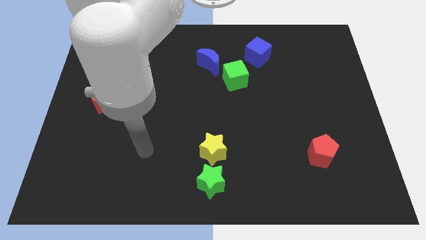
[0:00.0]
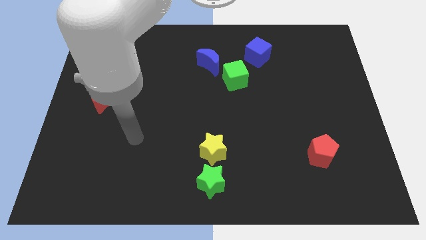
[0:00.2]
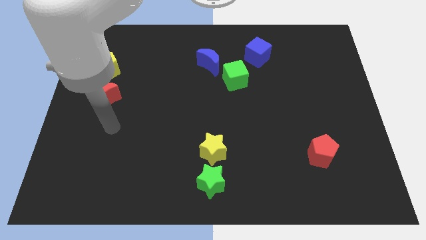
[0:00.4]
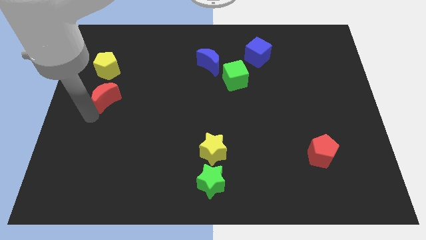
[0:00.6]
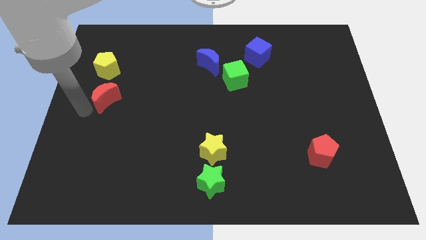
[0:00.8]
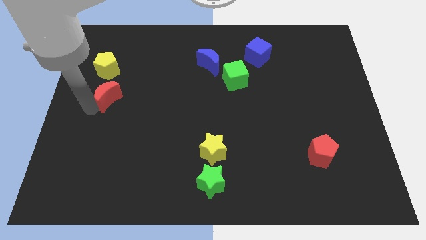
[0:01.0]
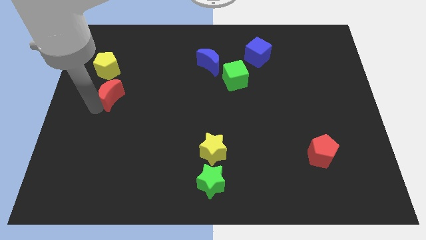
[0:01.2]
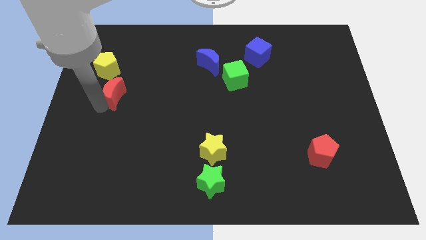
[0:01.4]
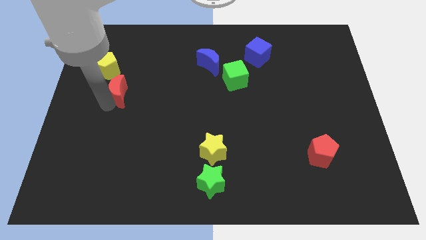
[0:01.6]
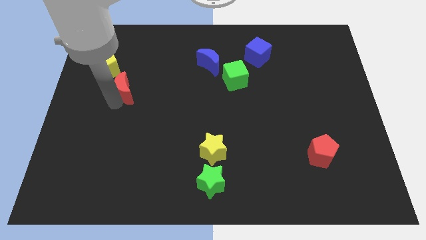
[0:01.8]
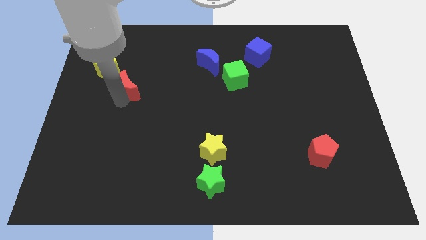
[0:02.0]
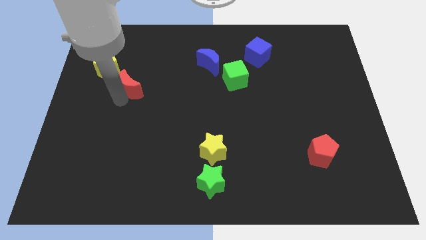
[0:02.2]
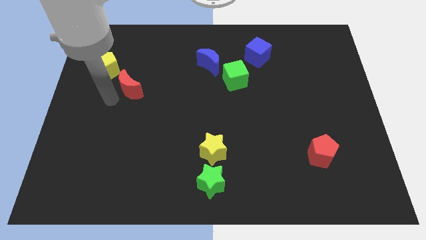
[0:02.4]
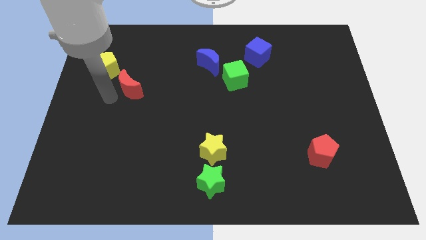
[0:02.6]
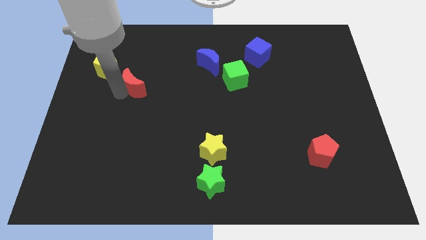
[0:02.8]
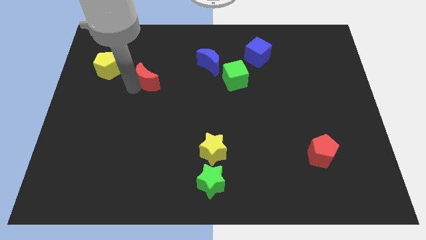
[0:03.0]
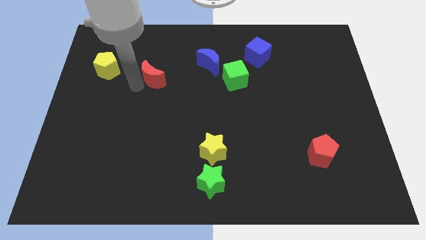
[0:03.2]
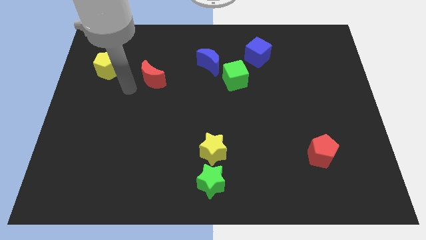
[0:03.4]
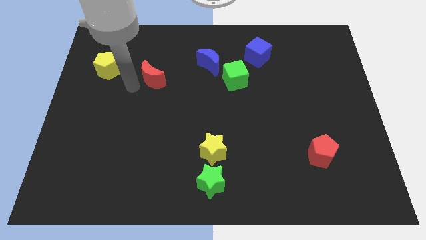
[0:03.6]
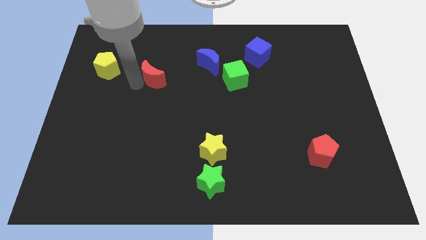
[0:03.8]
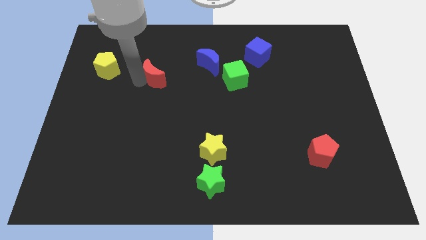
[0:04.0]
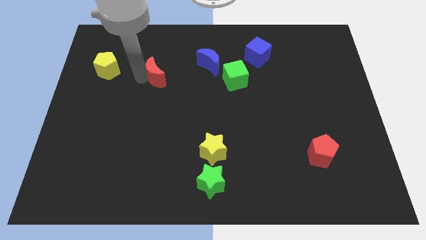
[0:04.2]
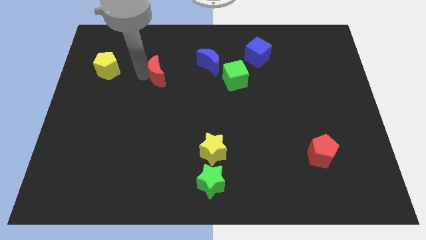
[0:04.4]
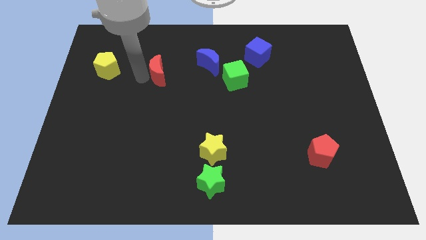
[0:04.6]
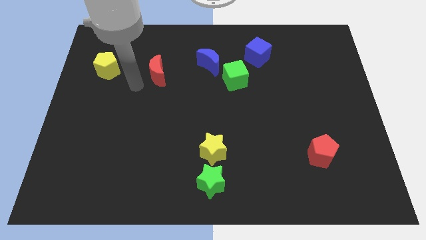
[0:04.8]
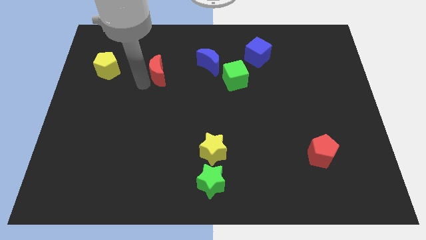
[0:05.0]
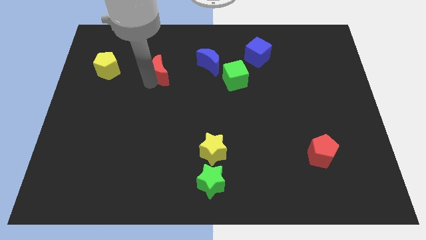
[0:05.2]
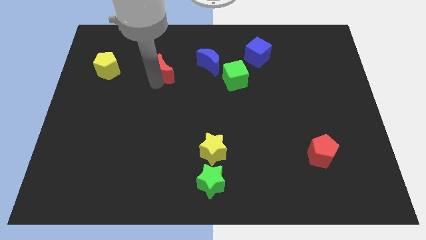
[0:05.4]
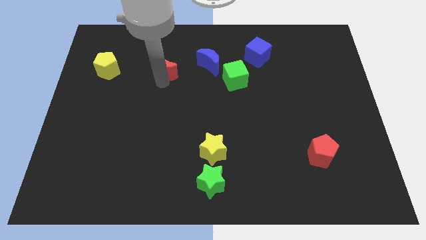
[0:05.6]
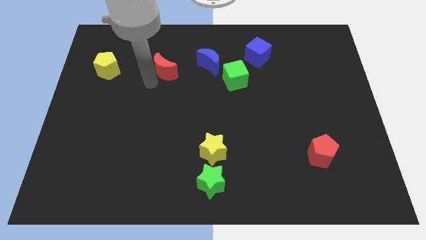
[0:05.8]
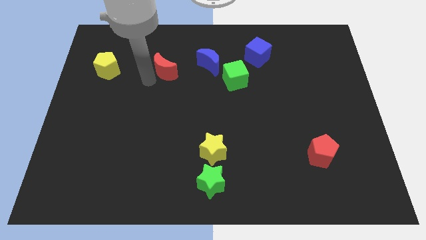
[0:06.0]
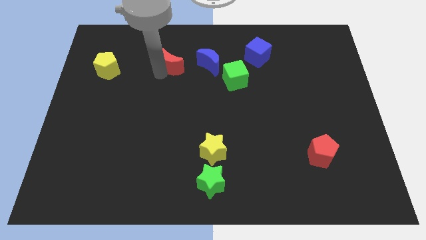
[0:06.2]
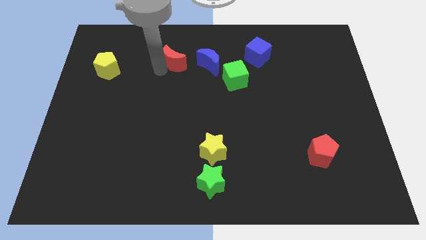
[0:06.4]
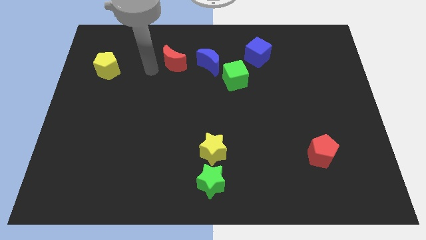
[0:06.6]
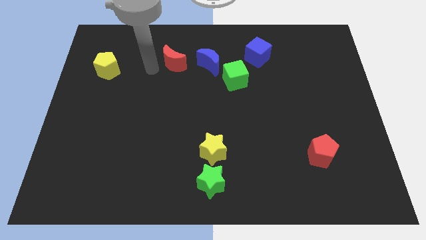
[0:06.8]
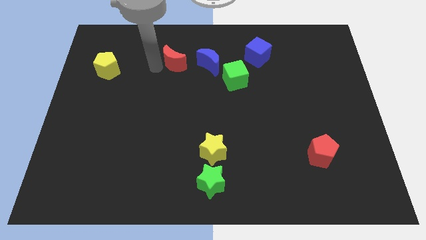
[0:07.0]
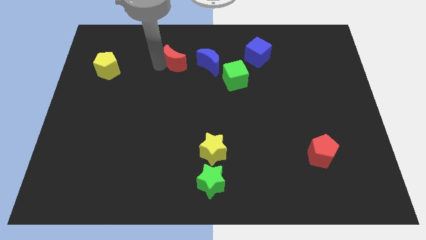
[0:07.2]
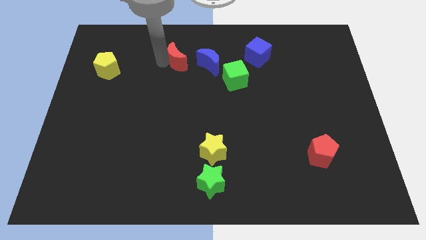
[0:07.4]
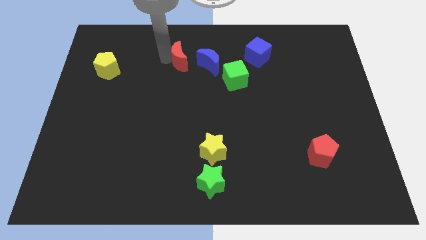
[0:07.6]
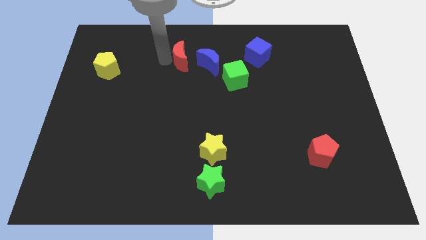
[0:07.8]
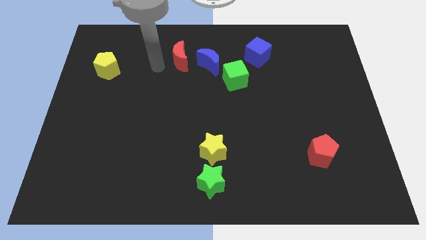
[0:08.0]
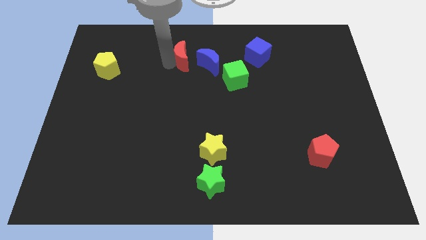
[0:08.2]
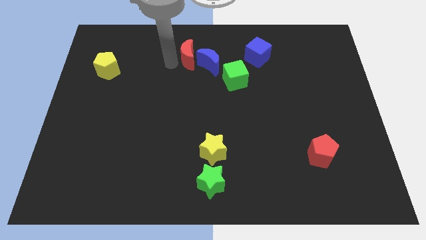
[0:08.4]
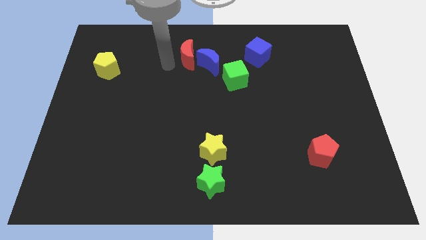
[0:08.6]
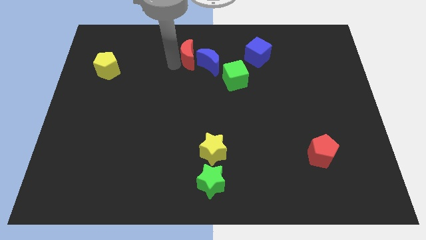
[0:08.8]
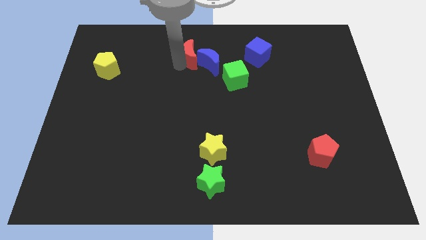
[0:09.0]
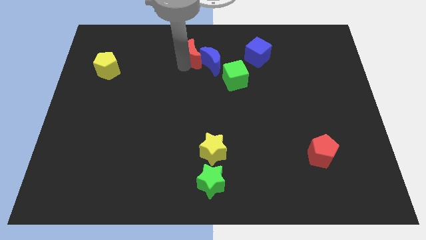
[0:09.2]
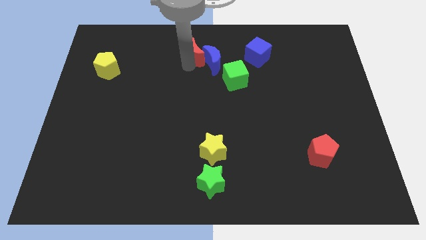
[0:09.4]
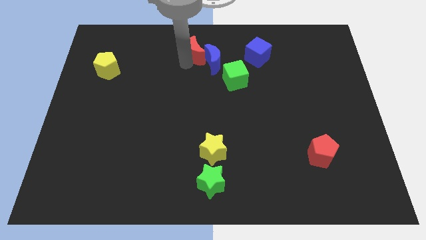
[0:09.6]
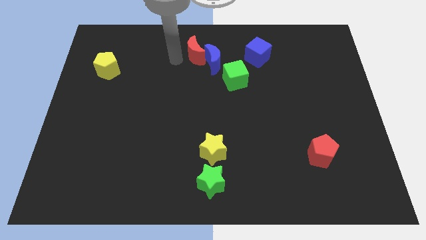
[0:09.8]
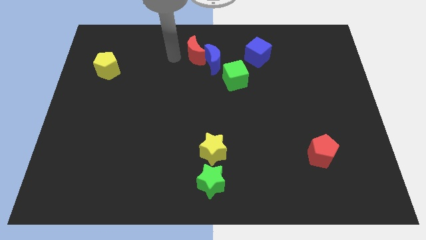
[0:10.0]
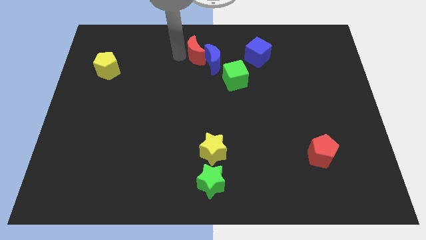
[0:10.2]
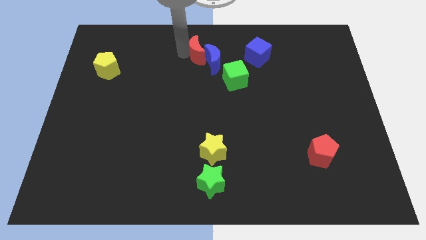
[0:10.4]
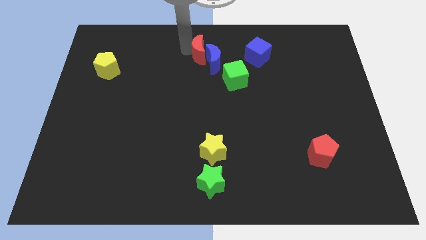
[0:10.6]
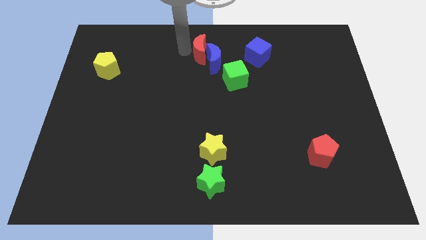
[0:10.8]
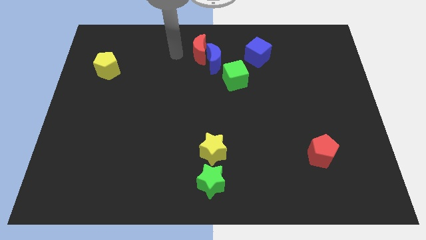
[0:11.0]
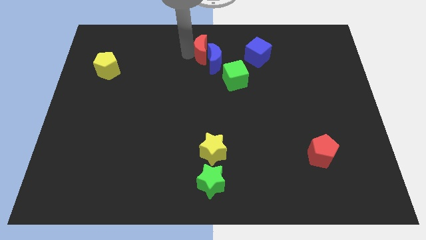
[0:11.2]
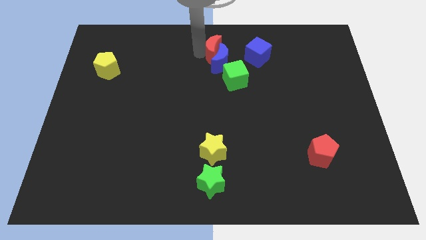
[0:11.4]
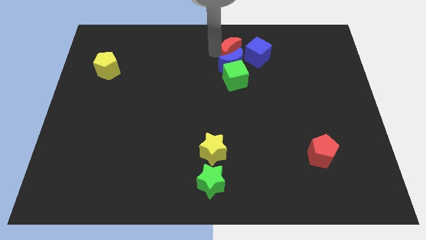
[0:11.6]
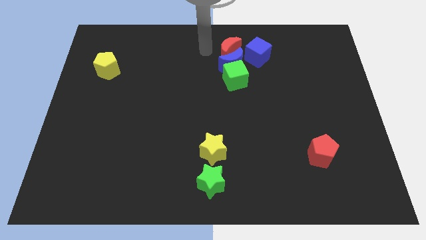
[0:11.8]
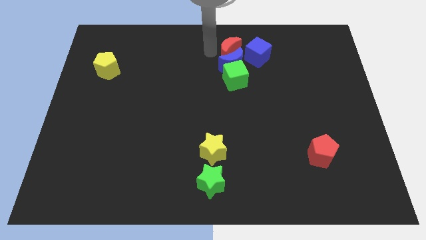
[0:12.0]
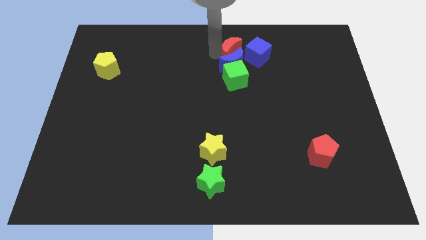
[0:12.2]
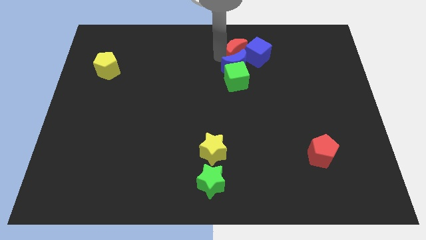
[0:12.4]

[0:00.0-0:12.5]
slide the red moon close to the blue cube

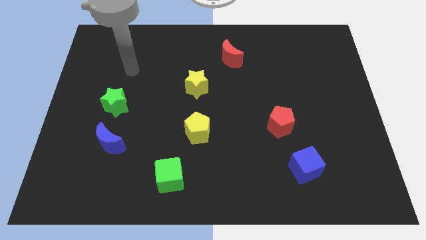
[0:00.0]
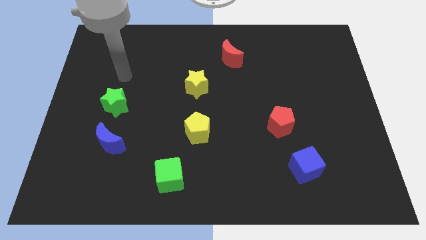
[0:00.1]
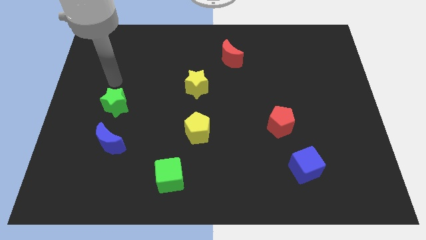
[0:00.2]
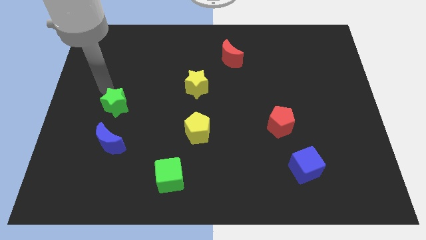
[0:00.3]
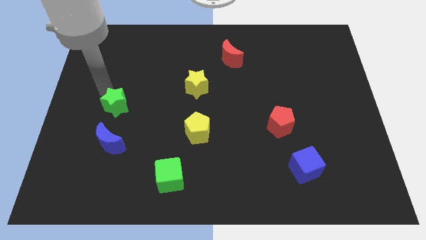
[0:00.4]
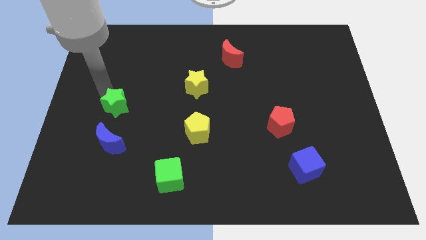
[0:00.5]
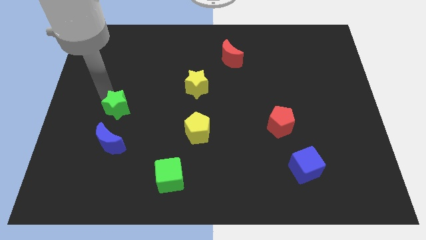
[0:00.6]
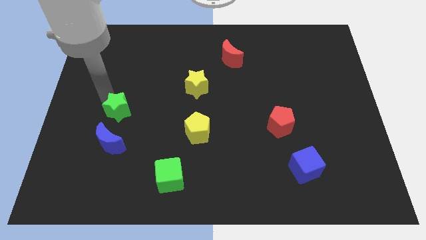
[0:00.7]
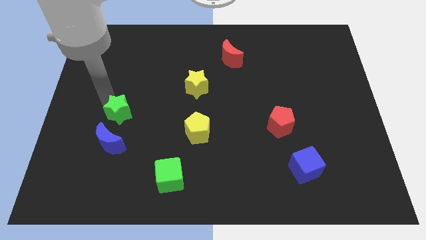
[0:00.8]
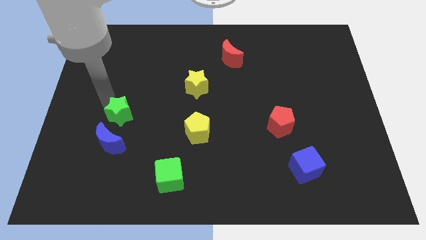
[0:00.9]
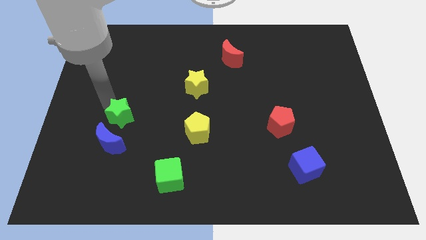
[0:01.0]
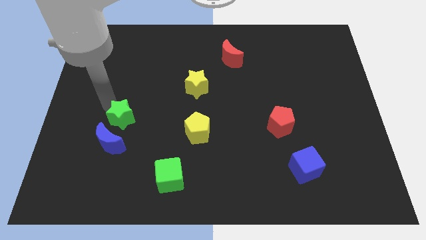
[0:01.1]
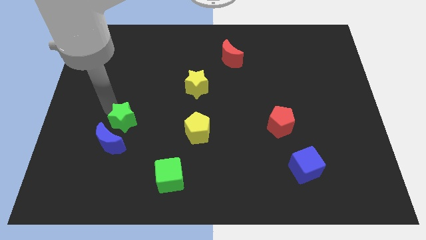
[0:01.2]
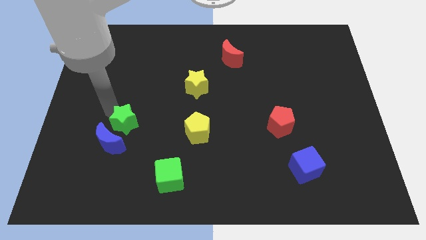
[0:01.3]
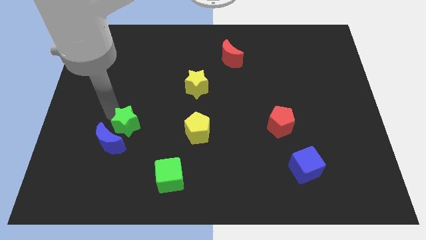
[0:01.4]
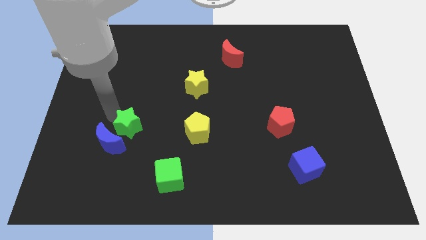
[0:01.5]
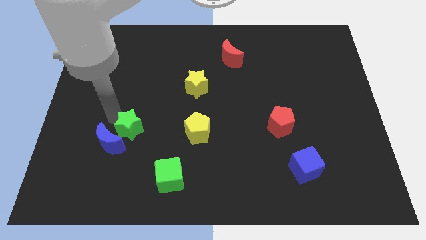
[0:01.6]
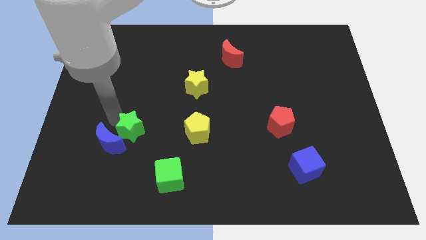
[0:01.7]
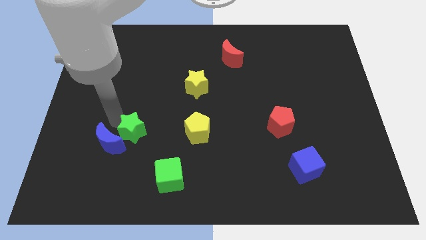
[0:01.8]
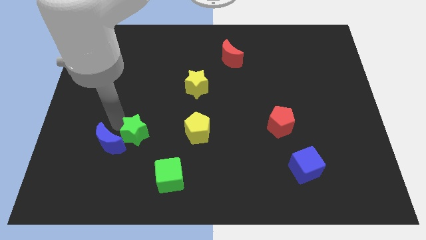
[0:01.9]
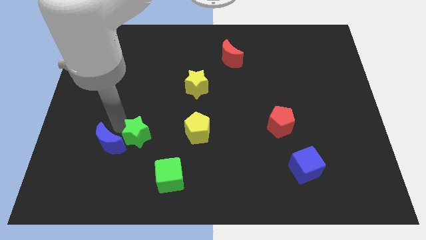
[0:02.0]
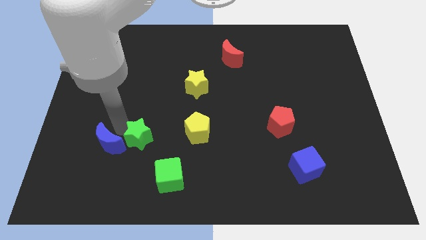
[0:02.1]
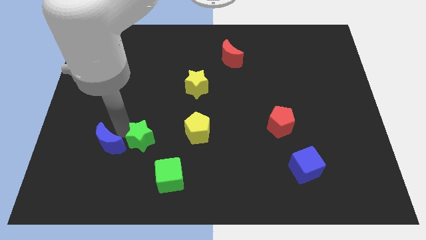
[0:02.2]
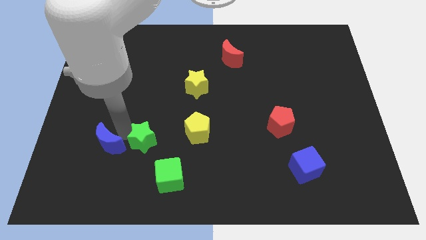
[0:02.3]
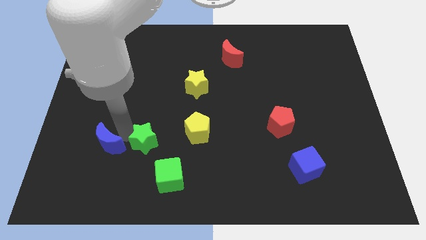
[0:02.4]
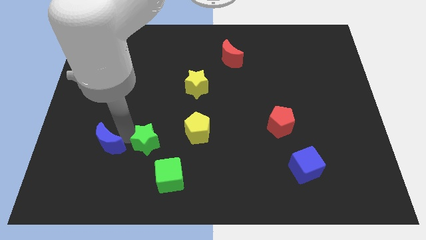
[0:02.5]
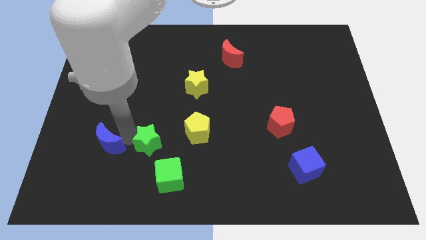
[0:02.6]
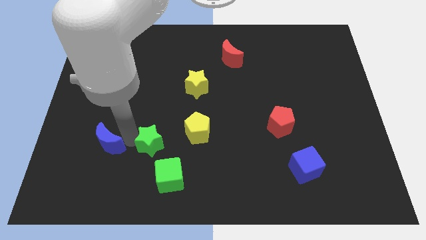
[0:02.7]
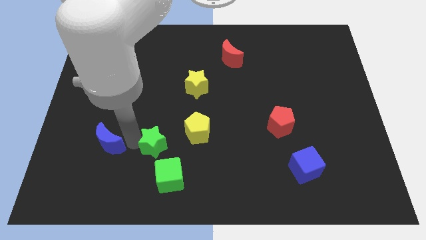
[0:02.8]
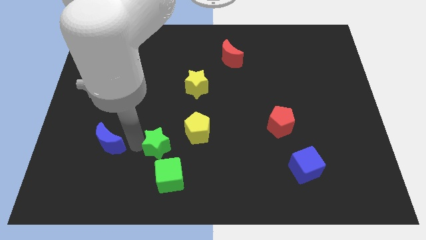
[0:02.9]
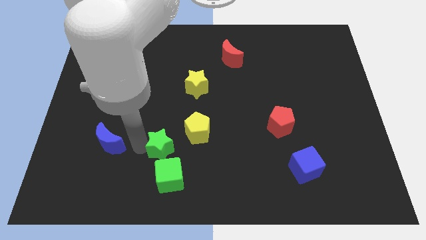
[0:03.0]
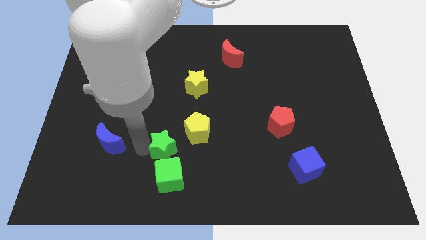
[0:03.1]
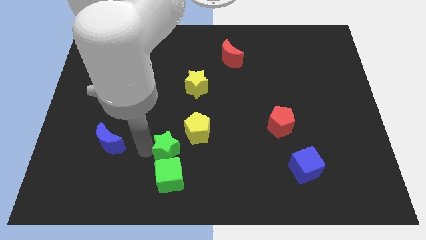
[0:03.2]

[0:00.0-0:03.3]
slide the green star next to the green cube
